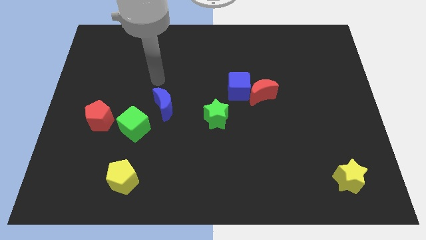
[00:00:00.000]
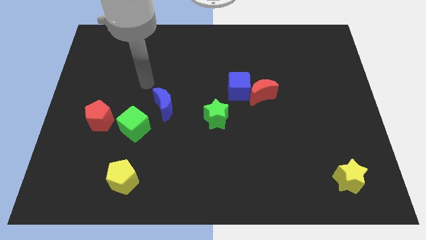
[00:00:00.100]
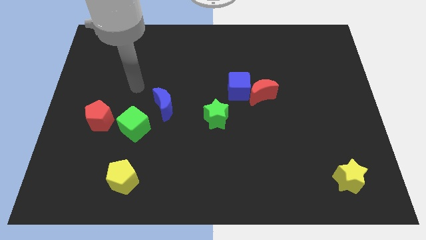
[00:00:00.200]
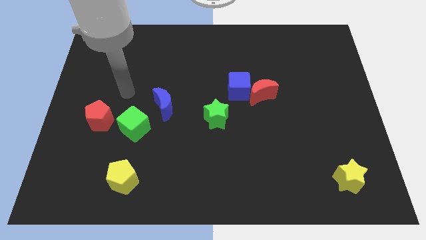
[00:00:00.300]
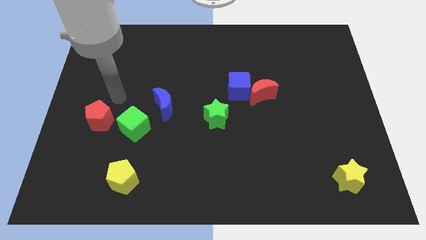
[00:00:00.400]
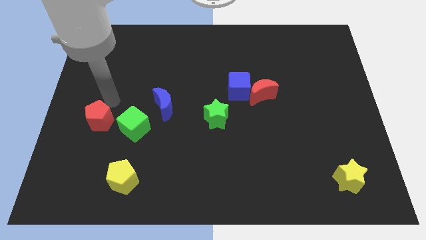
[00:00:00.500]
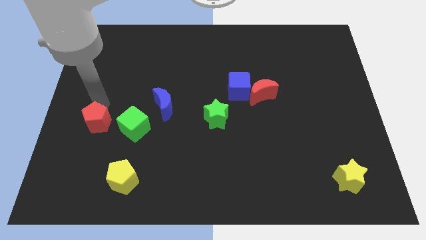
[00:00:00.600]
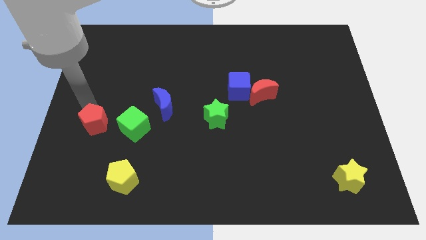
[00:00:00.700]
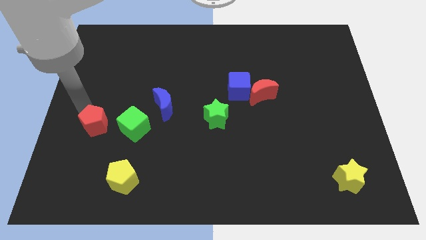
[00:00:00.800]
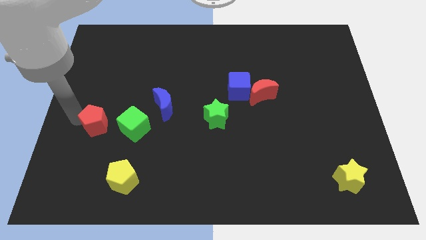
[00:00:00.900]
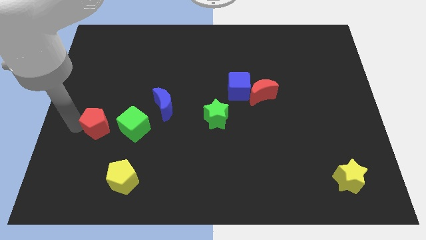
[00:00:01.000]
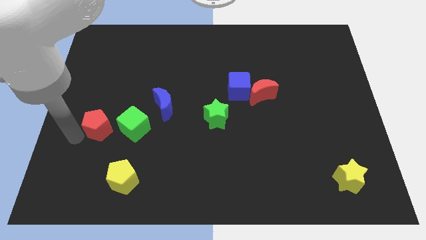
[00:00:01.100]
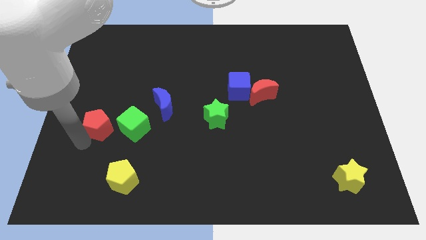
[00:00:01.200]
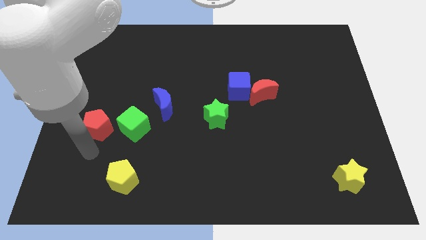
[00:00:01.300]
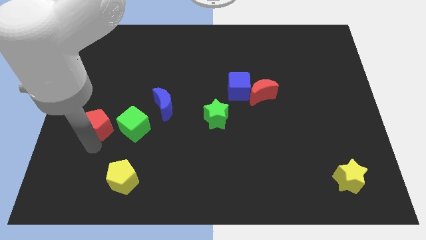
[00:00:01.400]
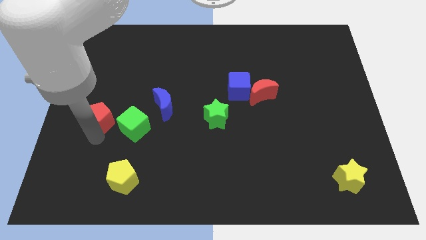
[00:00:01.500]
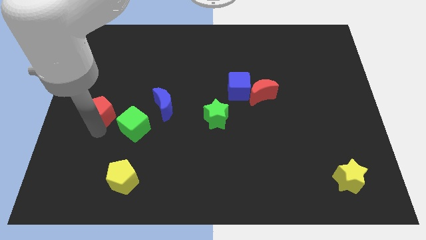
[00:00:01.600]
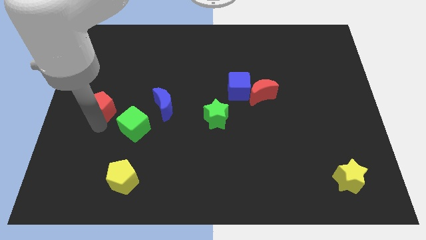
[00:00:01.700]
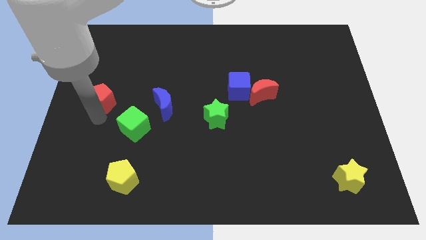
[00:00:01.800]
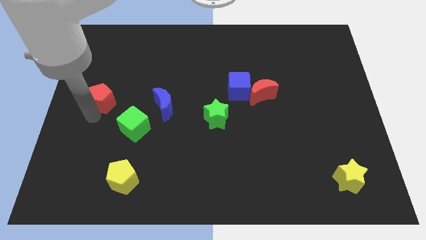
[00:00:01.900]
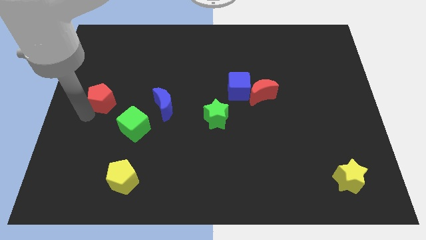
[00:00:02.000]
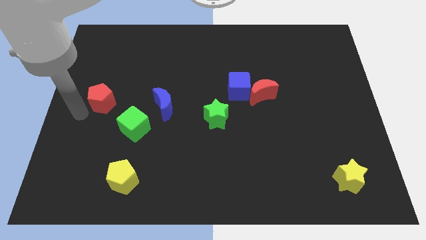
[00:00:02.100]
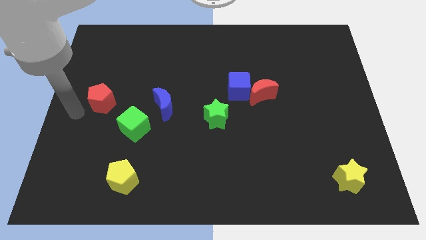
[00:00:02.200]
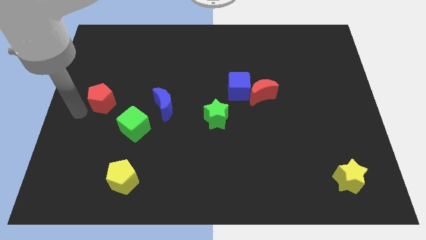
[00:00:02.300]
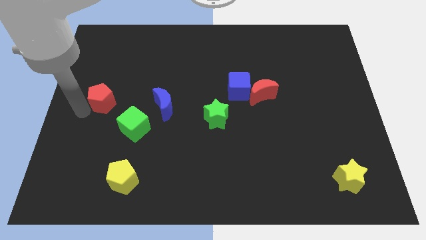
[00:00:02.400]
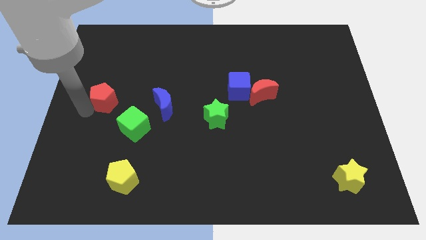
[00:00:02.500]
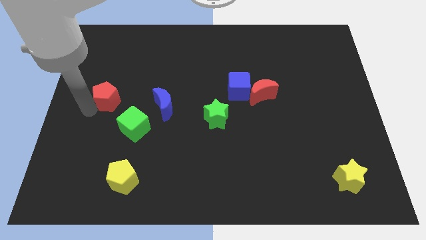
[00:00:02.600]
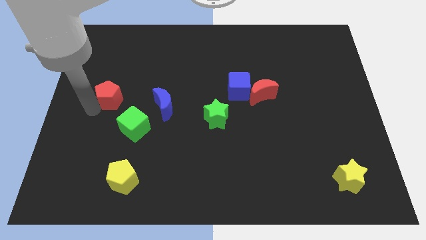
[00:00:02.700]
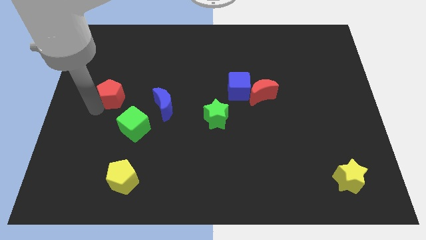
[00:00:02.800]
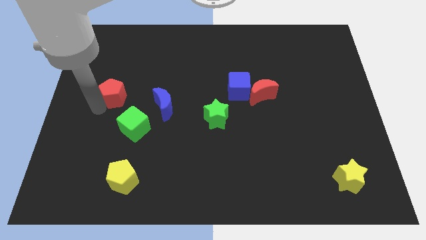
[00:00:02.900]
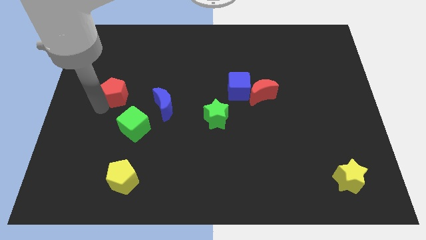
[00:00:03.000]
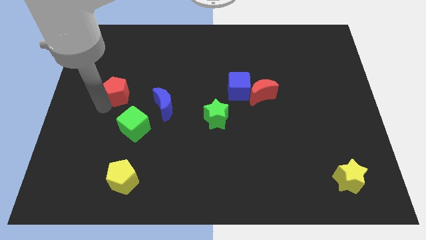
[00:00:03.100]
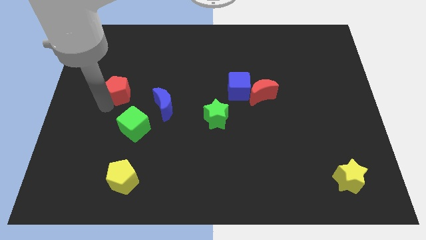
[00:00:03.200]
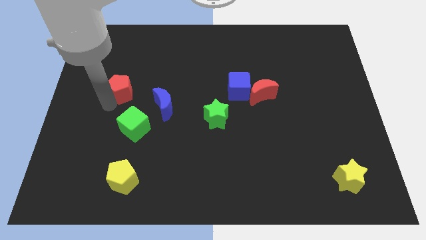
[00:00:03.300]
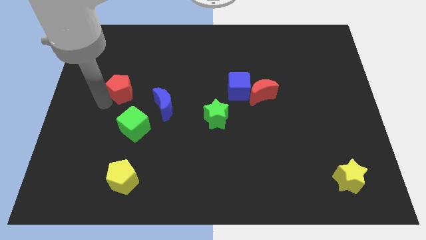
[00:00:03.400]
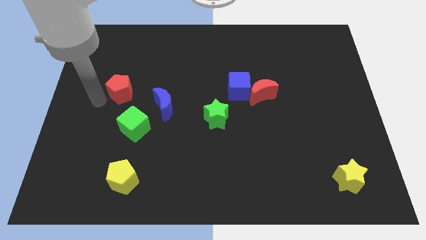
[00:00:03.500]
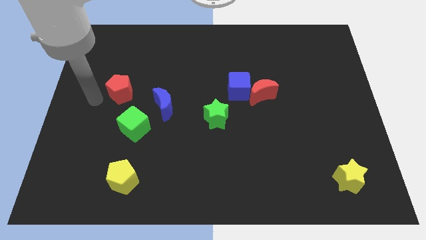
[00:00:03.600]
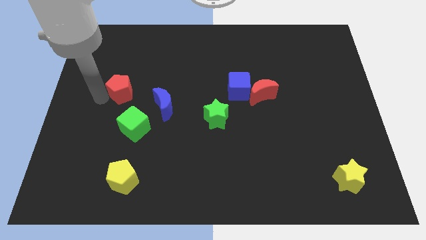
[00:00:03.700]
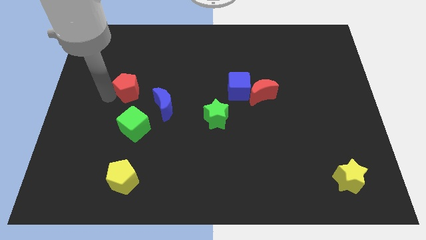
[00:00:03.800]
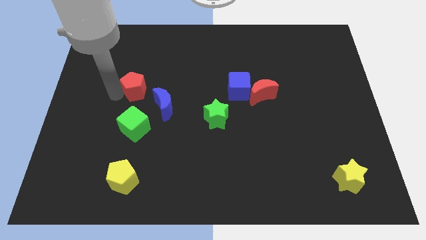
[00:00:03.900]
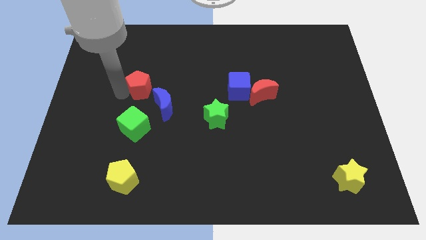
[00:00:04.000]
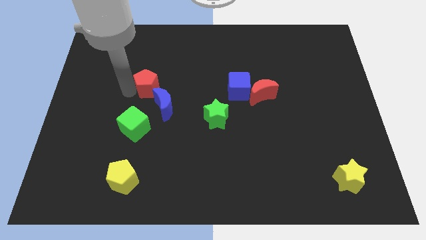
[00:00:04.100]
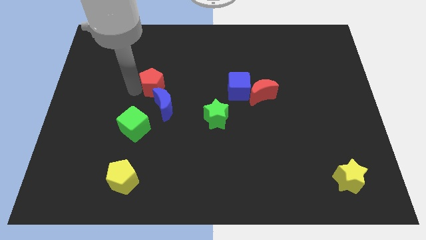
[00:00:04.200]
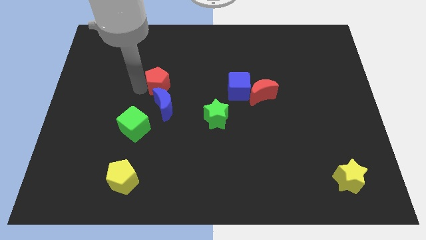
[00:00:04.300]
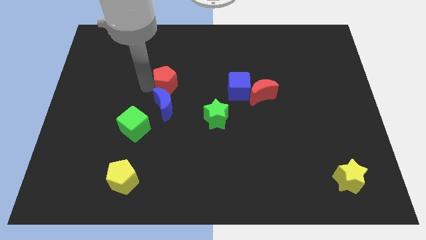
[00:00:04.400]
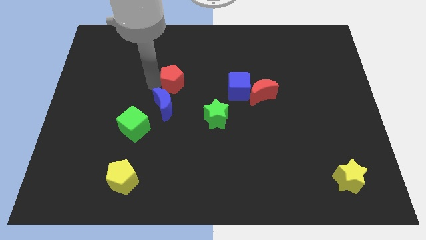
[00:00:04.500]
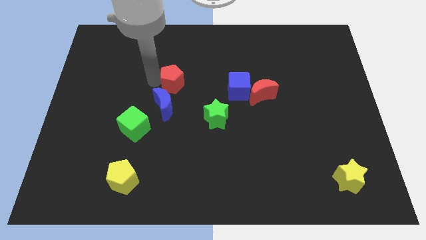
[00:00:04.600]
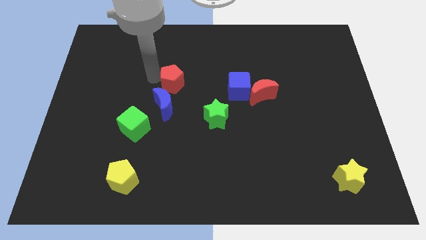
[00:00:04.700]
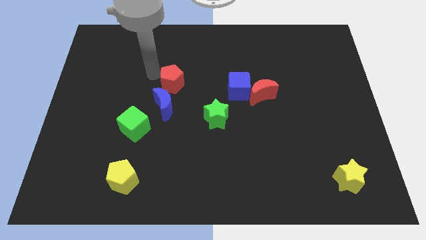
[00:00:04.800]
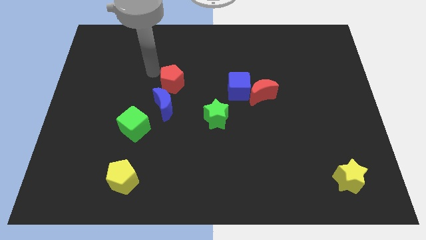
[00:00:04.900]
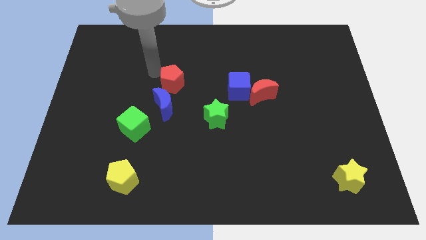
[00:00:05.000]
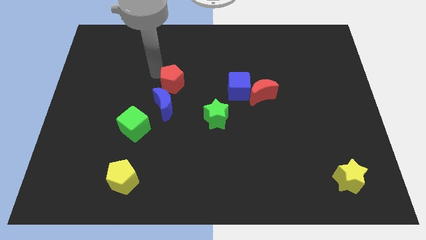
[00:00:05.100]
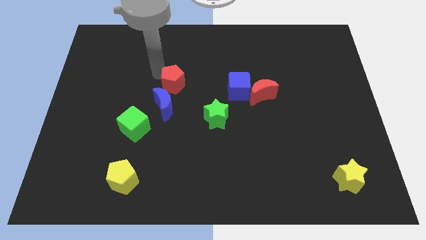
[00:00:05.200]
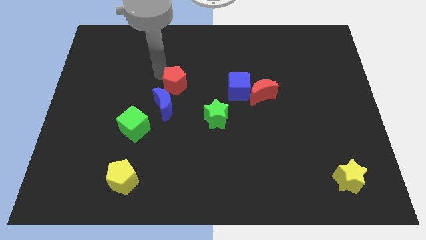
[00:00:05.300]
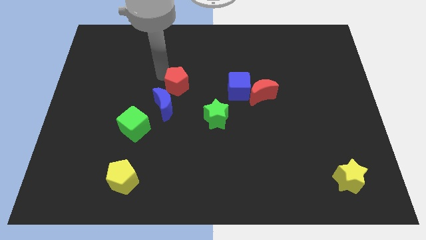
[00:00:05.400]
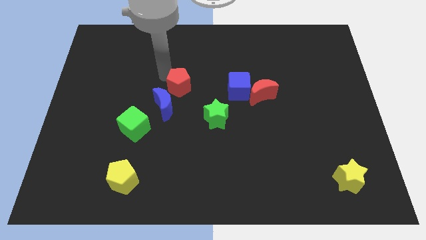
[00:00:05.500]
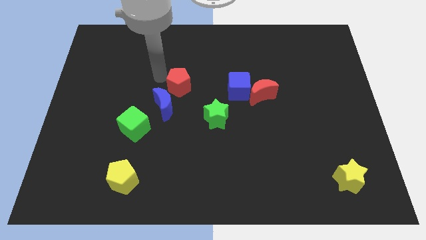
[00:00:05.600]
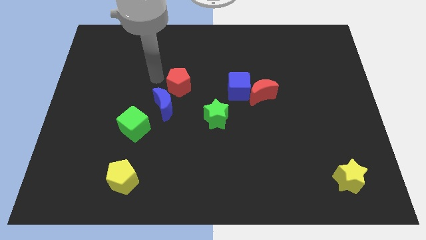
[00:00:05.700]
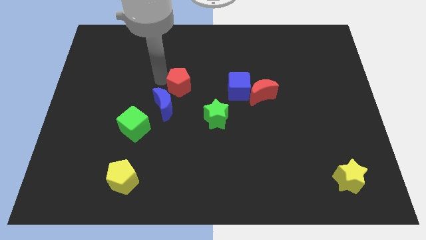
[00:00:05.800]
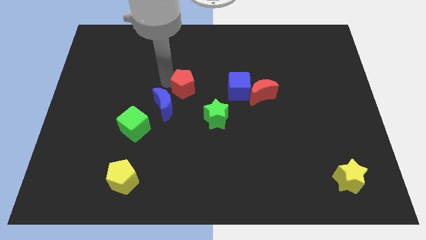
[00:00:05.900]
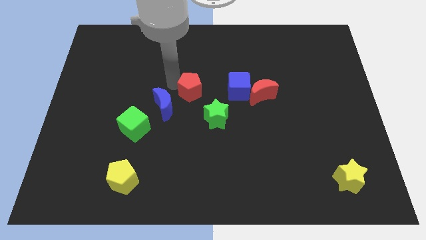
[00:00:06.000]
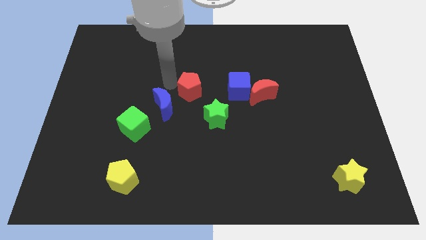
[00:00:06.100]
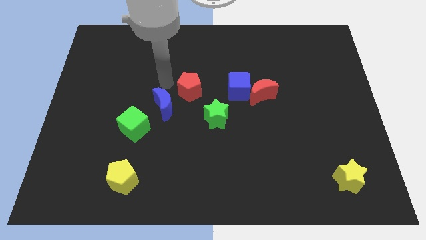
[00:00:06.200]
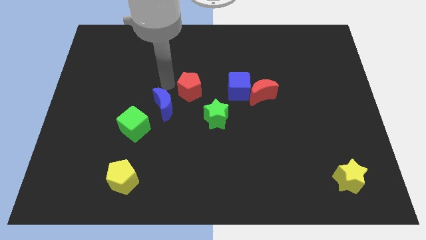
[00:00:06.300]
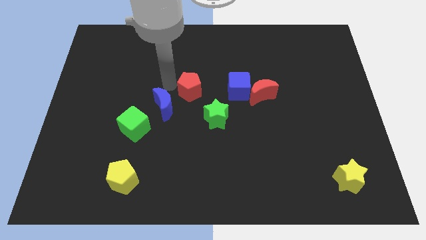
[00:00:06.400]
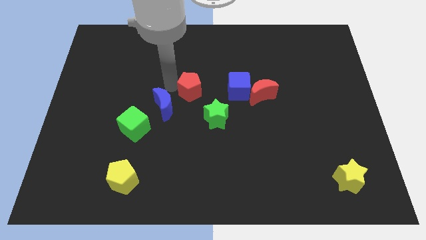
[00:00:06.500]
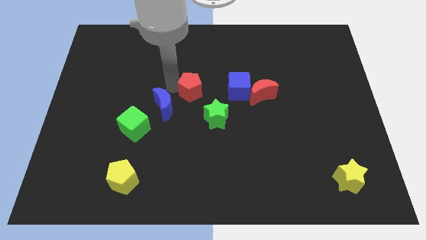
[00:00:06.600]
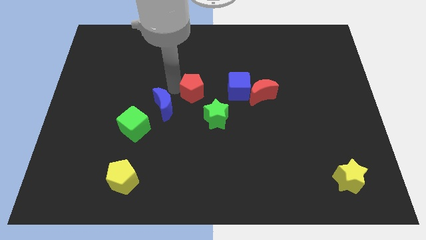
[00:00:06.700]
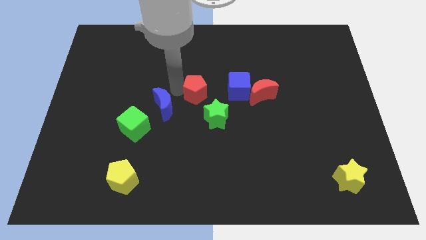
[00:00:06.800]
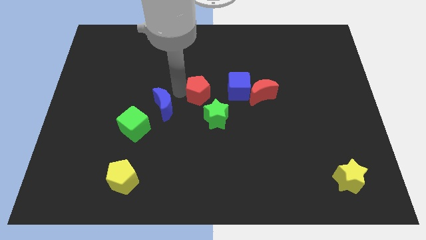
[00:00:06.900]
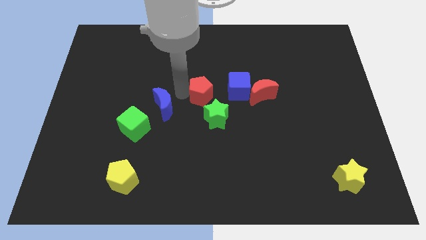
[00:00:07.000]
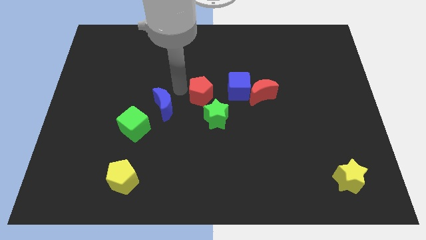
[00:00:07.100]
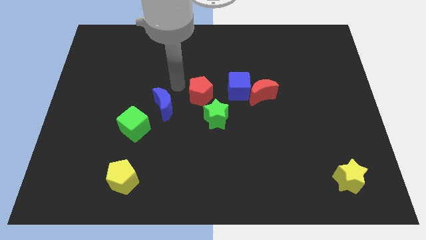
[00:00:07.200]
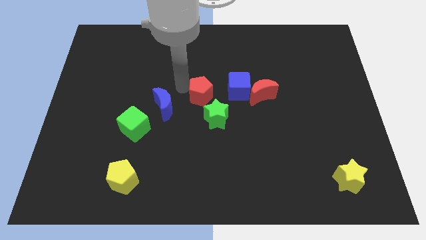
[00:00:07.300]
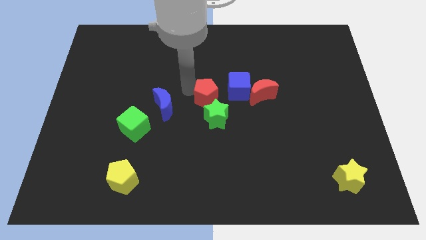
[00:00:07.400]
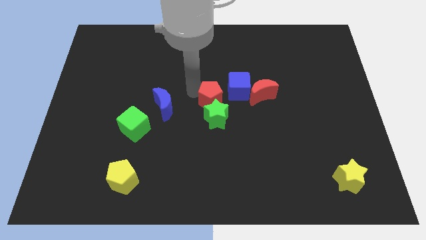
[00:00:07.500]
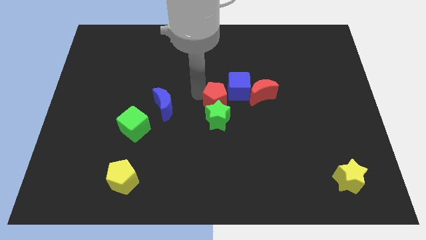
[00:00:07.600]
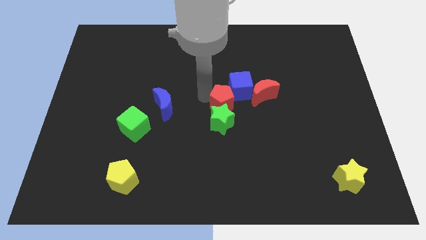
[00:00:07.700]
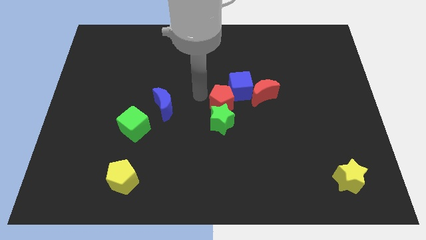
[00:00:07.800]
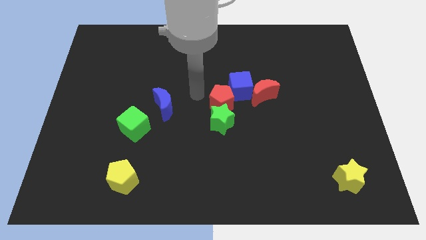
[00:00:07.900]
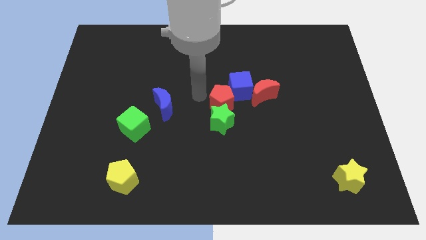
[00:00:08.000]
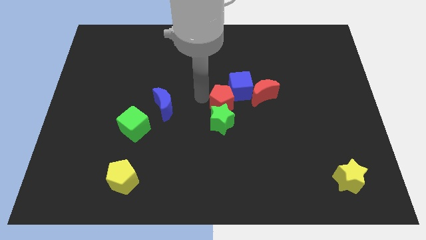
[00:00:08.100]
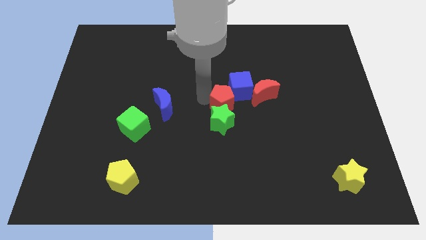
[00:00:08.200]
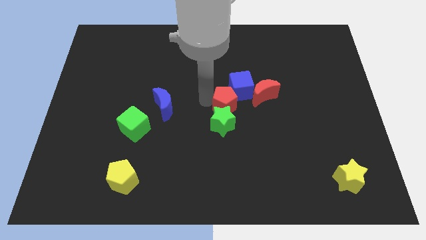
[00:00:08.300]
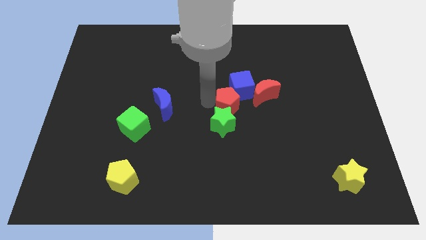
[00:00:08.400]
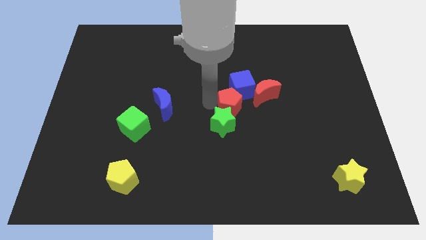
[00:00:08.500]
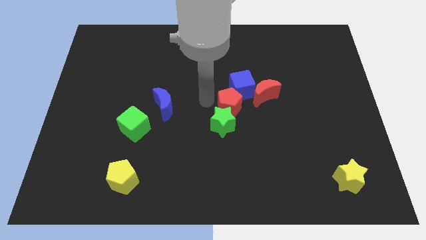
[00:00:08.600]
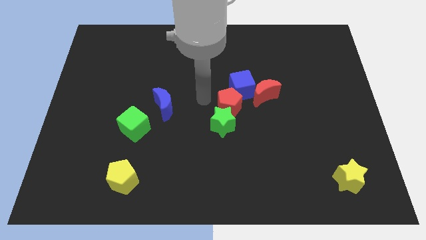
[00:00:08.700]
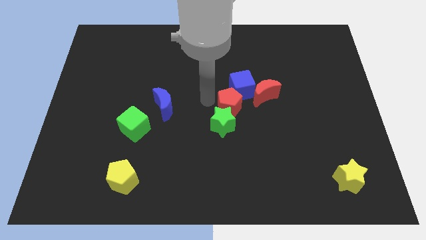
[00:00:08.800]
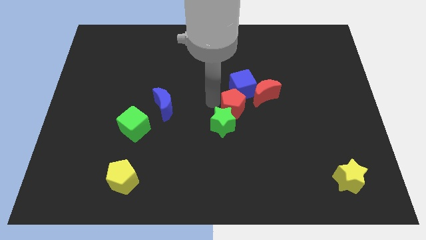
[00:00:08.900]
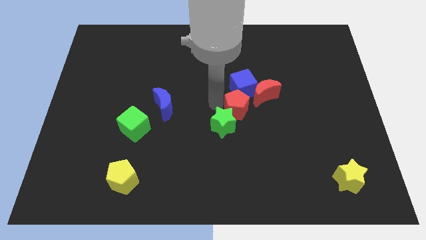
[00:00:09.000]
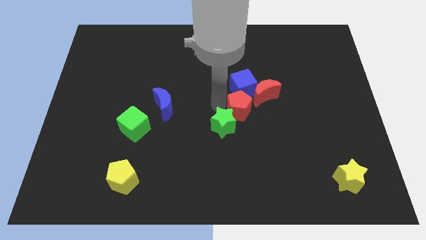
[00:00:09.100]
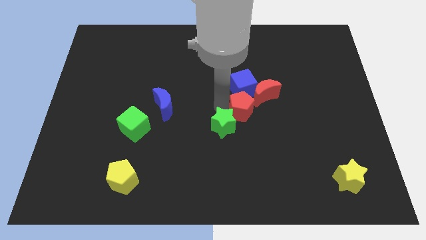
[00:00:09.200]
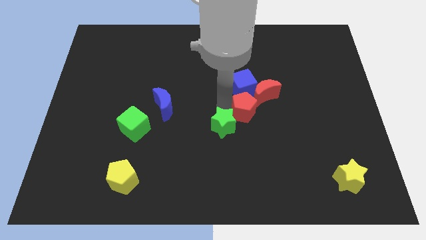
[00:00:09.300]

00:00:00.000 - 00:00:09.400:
push the red pentagon to the bottom right of the blue cube
